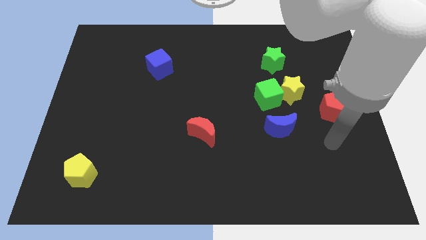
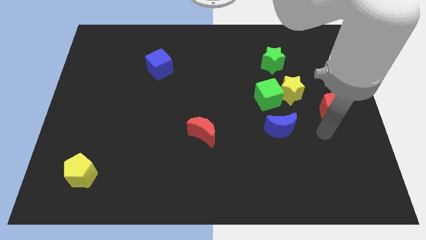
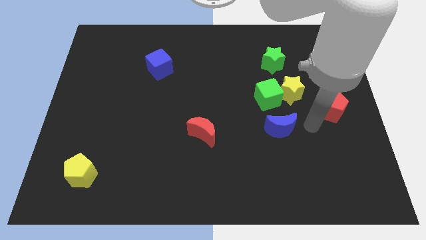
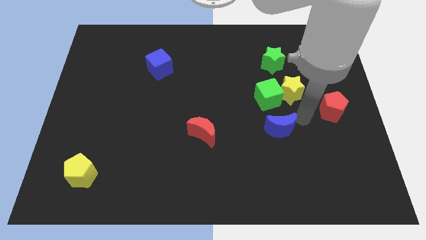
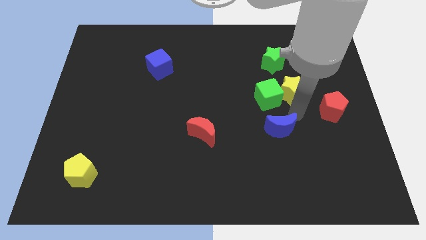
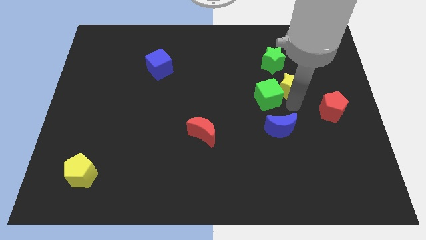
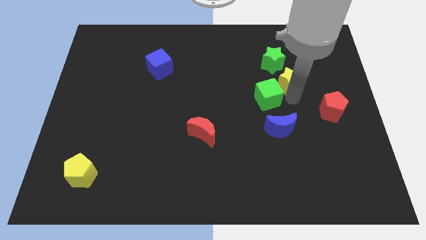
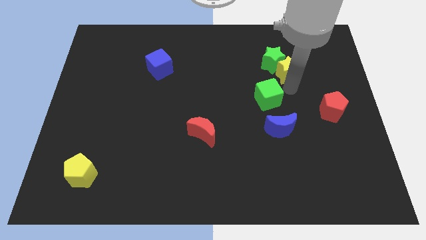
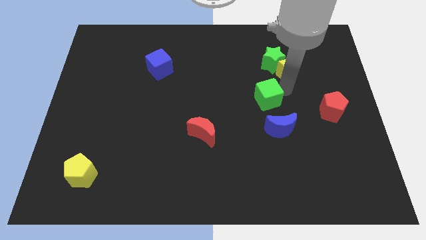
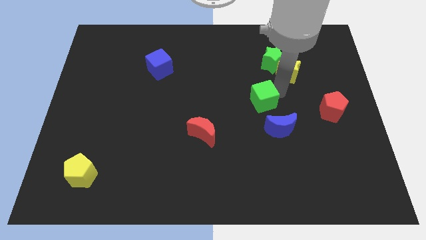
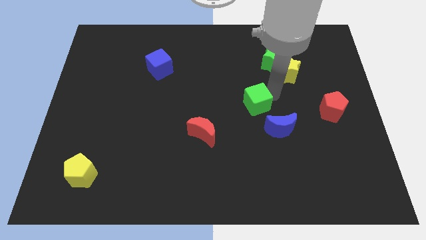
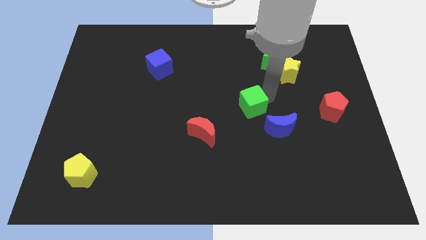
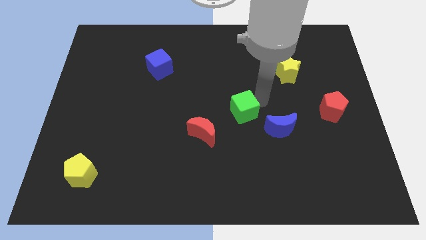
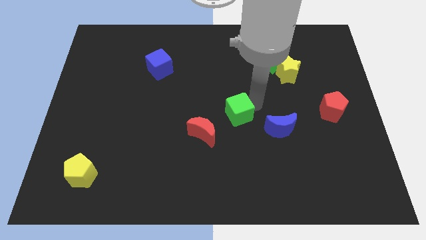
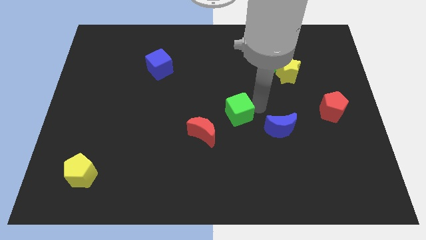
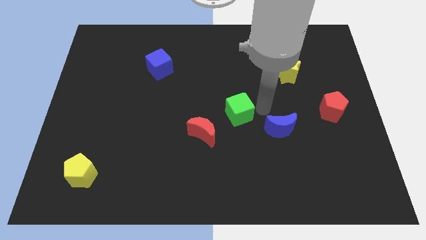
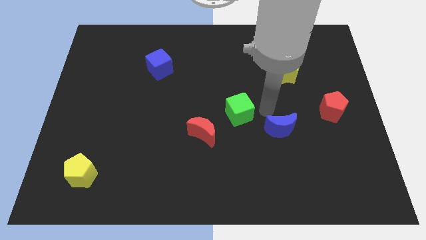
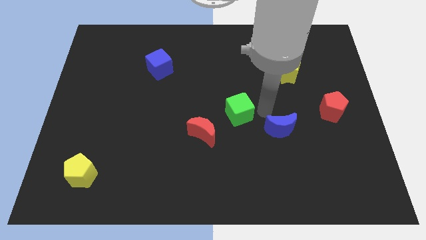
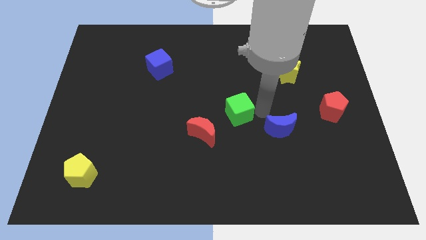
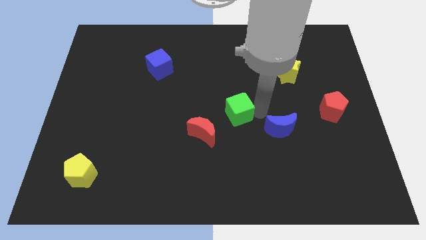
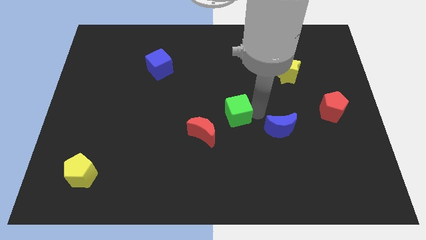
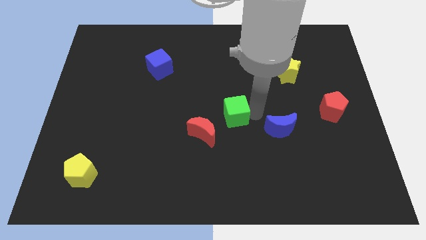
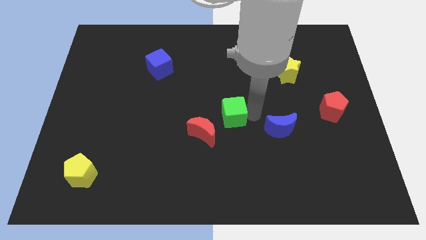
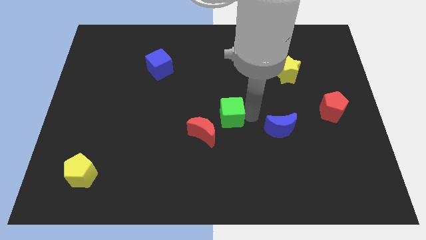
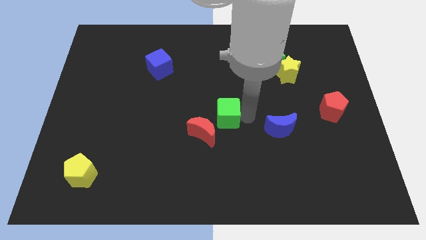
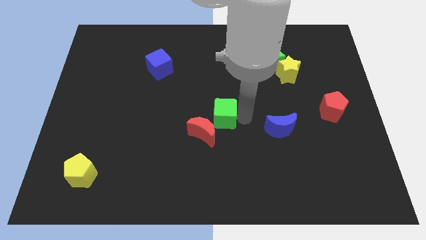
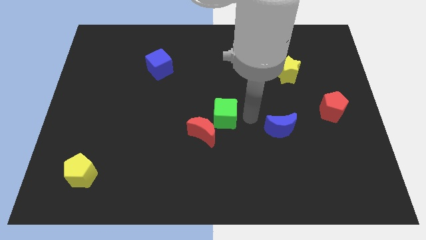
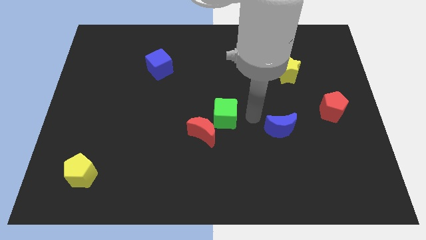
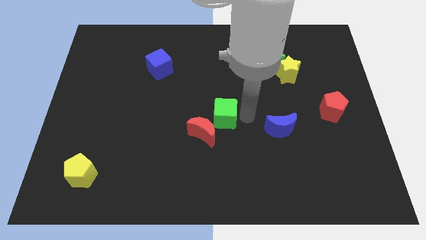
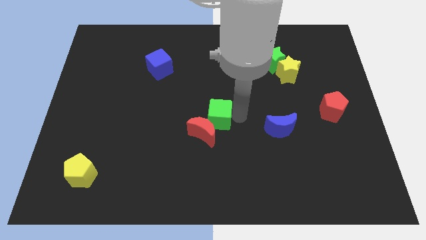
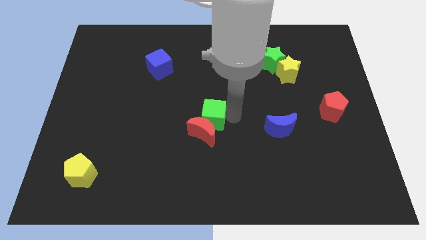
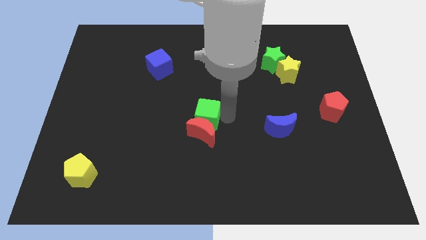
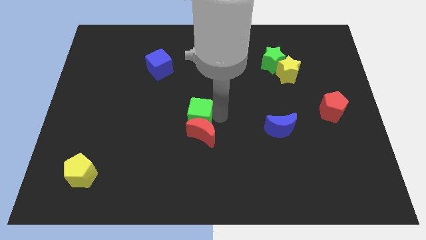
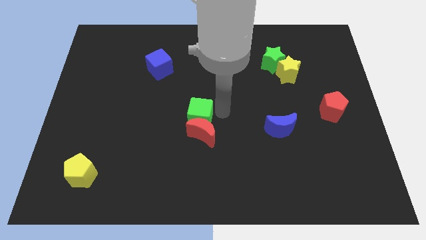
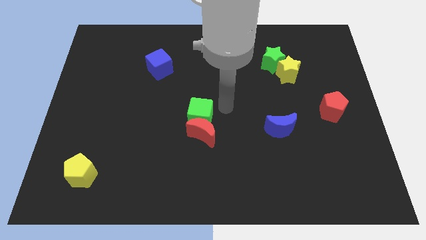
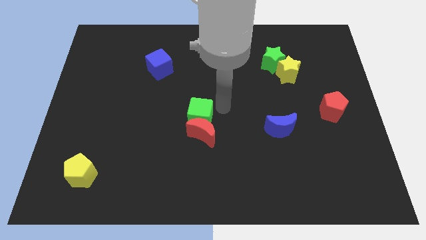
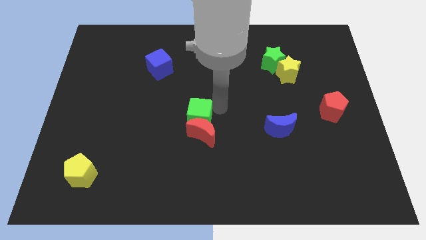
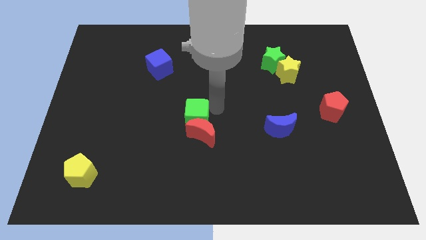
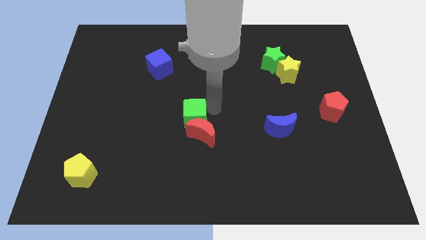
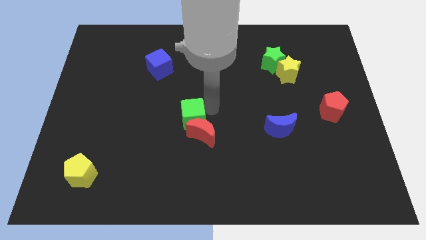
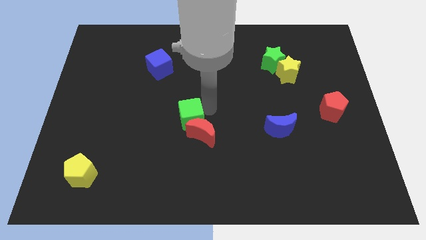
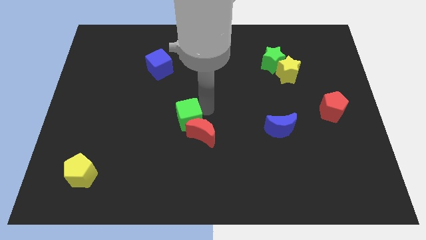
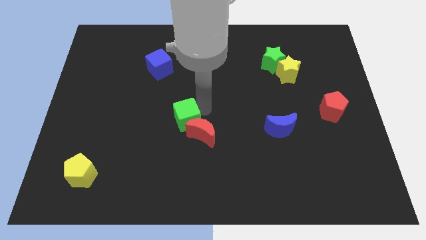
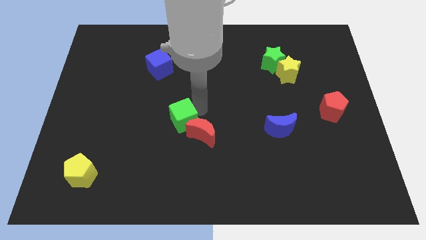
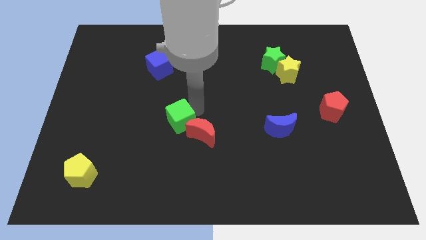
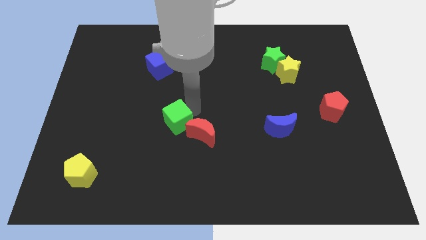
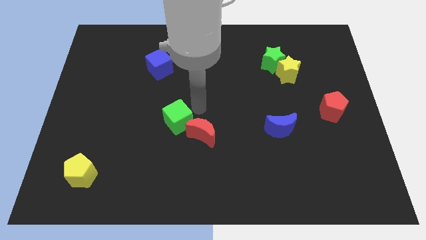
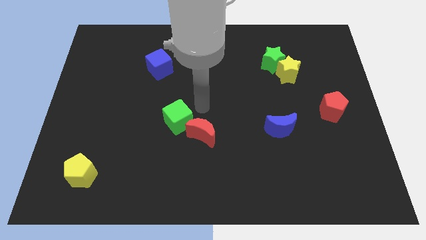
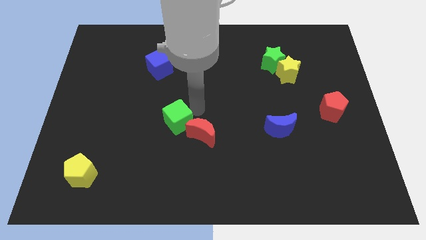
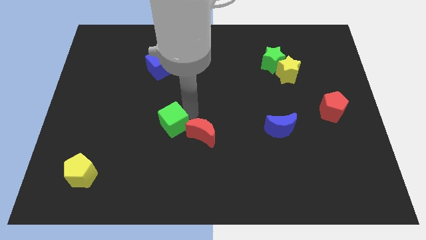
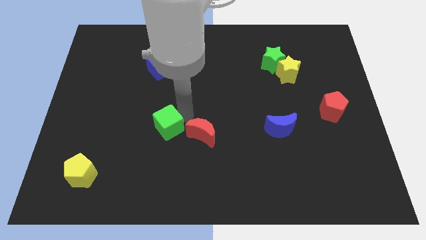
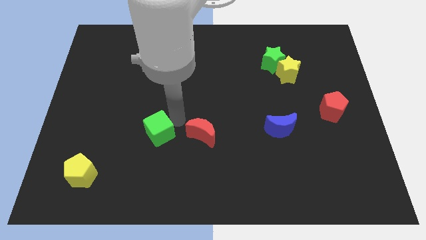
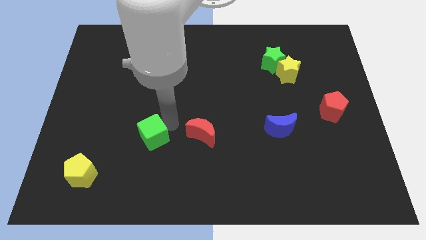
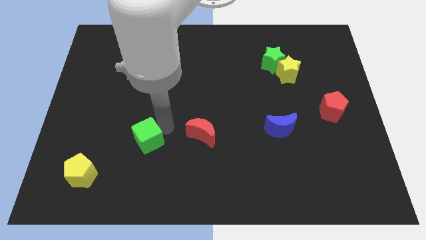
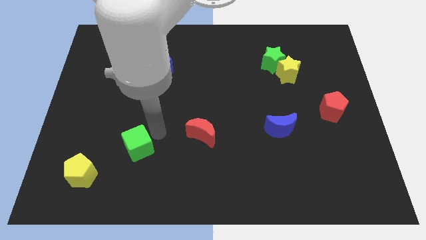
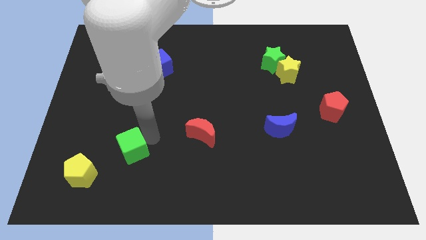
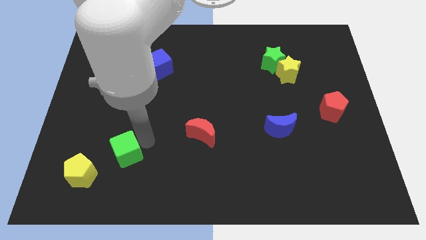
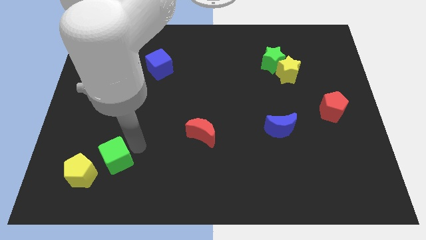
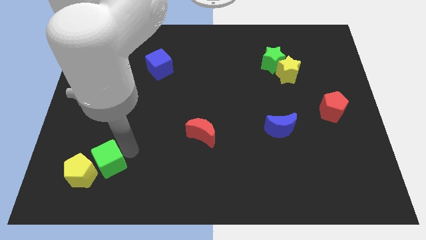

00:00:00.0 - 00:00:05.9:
put the green cube to the yellow pentagon
